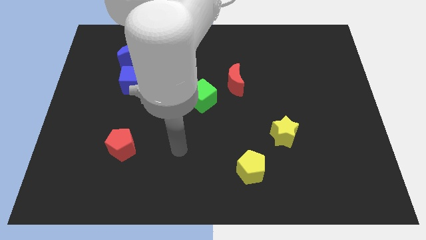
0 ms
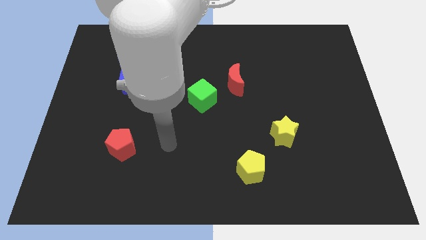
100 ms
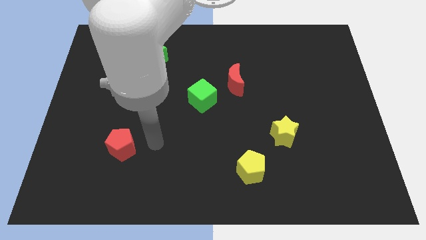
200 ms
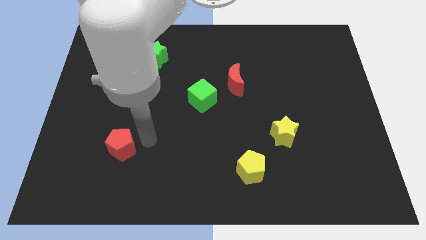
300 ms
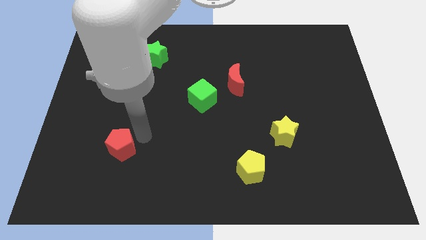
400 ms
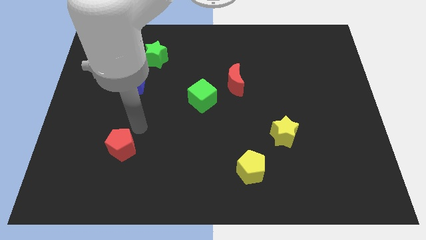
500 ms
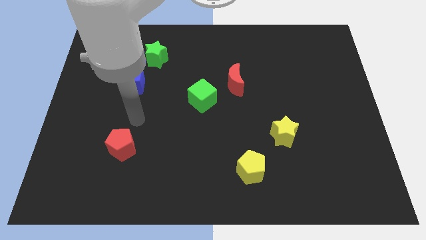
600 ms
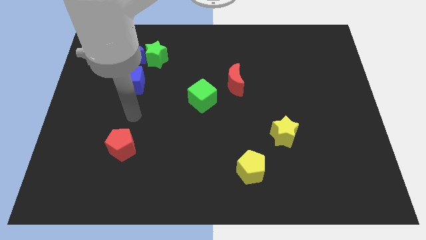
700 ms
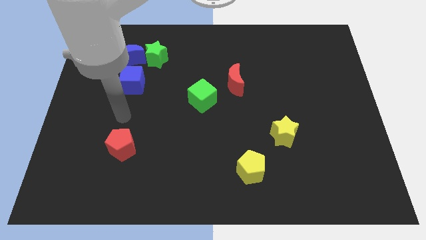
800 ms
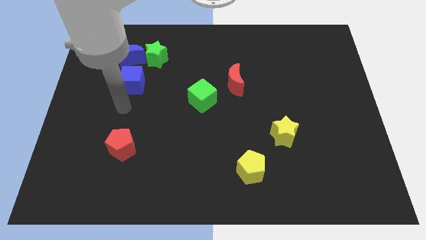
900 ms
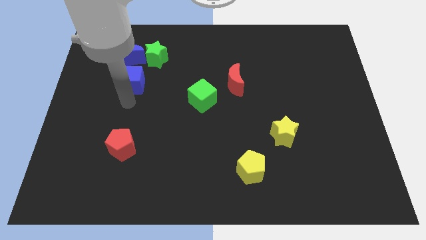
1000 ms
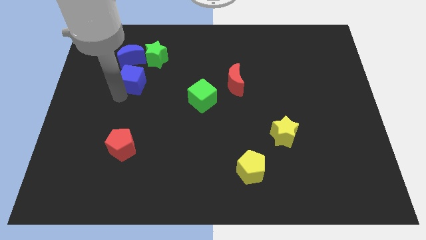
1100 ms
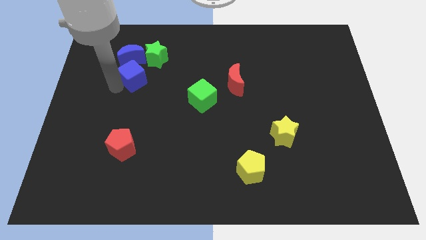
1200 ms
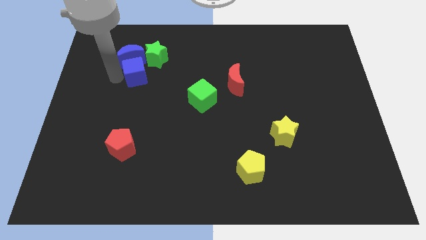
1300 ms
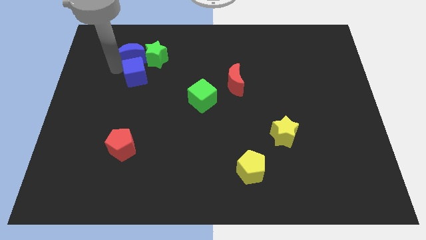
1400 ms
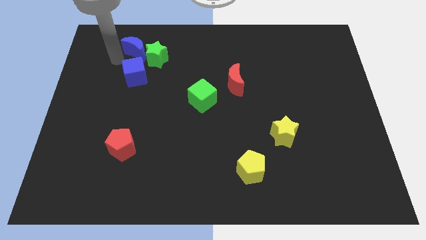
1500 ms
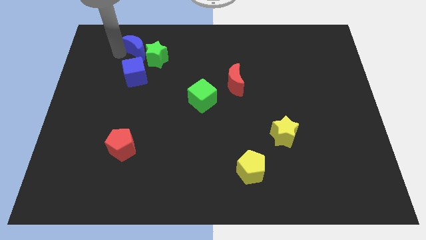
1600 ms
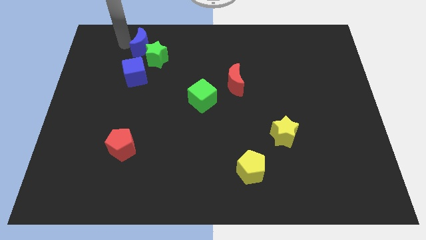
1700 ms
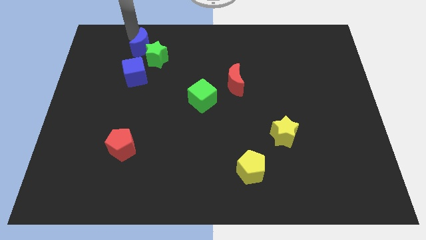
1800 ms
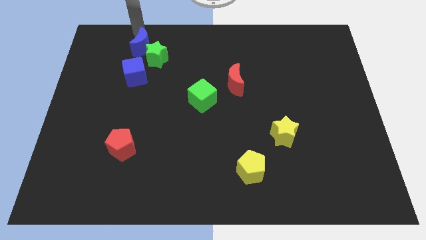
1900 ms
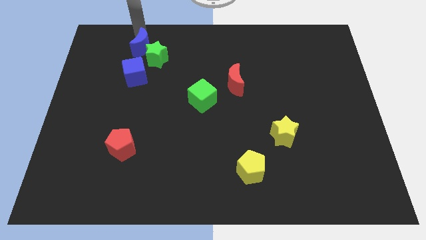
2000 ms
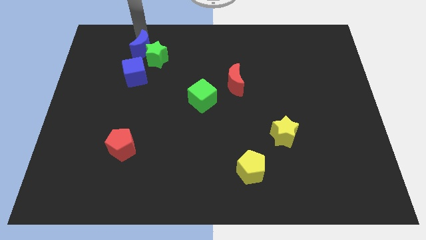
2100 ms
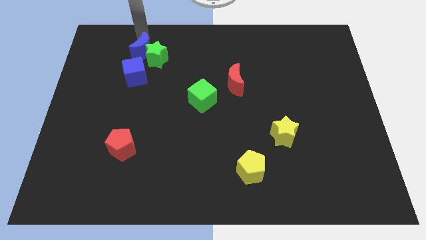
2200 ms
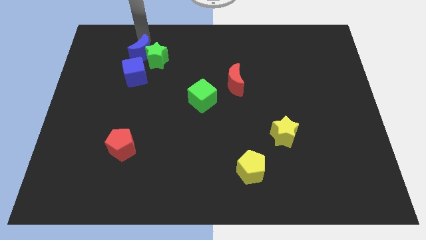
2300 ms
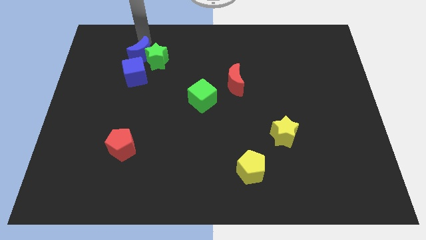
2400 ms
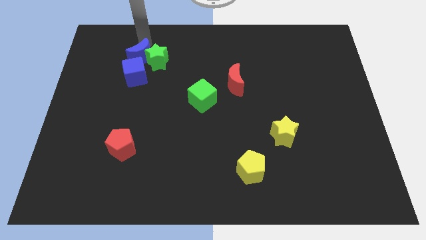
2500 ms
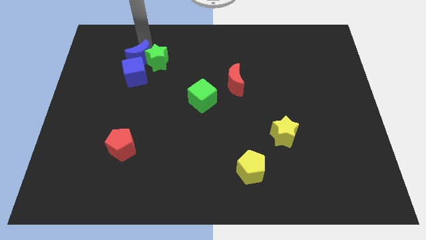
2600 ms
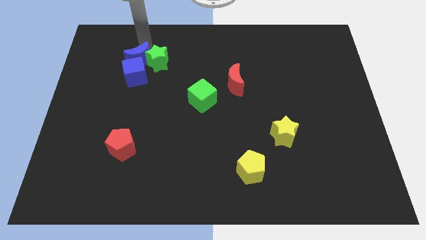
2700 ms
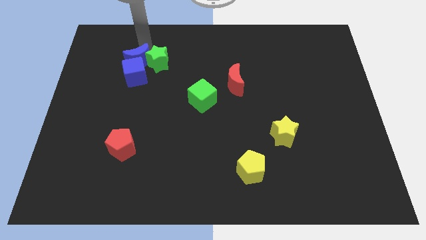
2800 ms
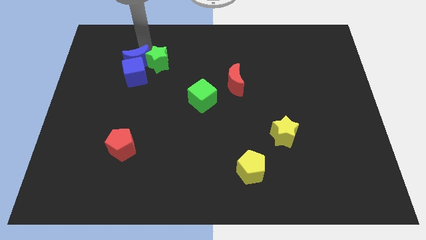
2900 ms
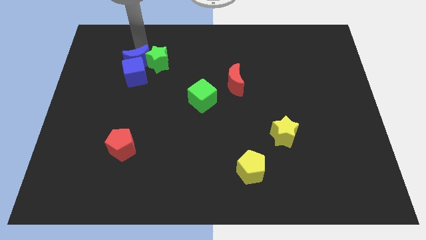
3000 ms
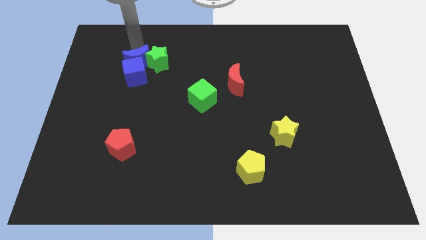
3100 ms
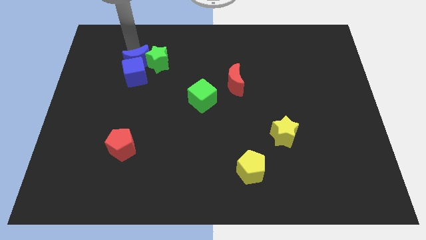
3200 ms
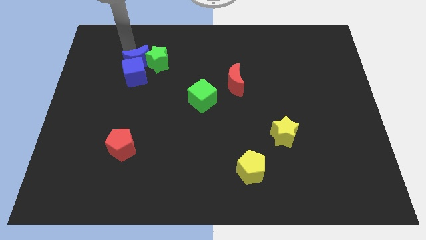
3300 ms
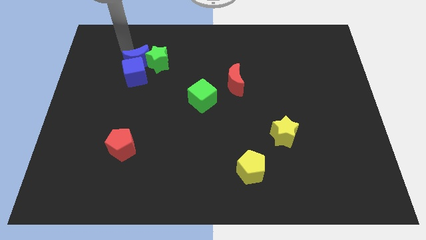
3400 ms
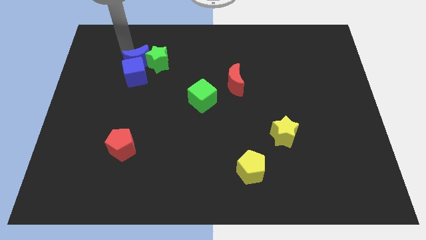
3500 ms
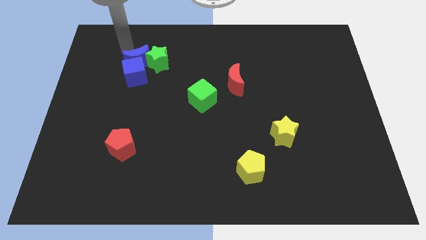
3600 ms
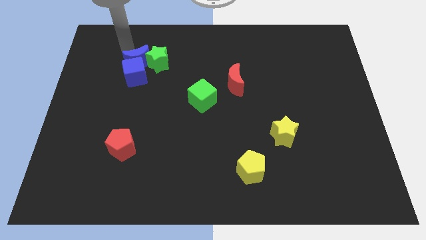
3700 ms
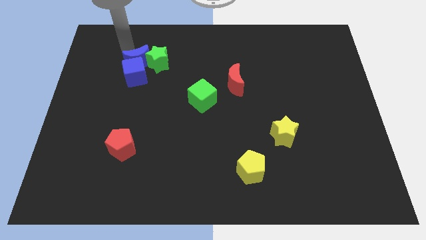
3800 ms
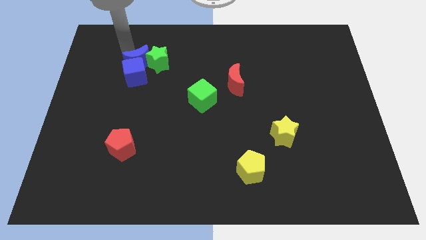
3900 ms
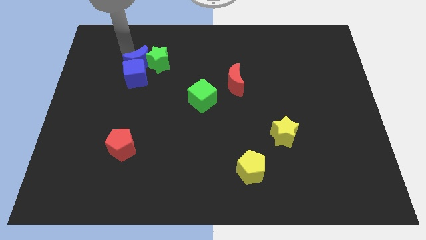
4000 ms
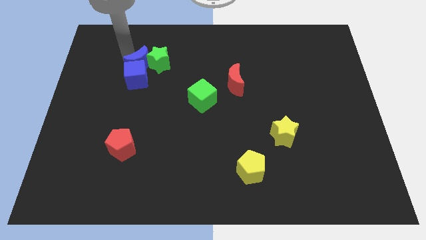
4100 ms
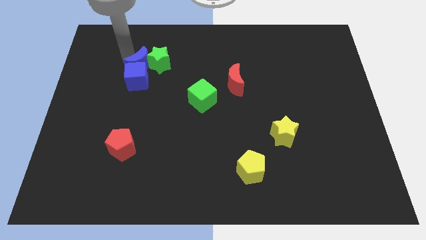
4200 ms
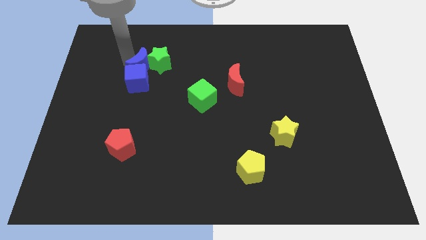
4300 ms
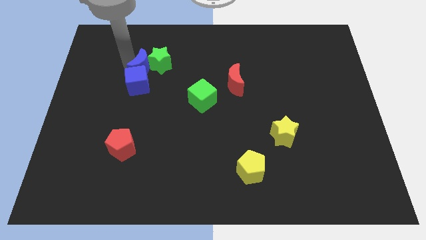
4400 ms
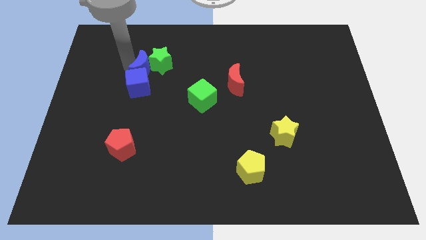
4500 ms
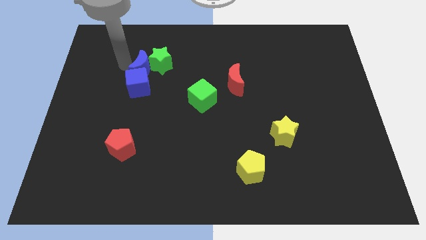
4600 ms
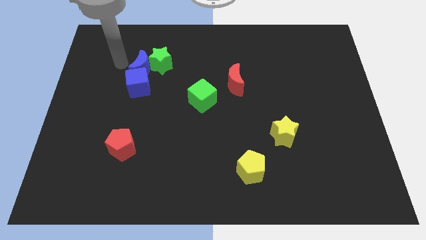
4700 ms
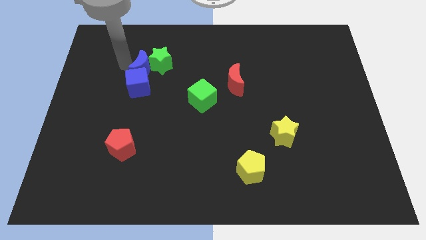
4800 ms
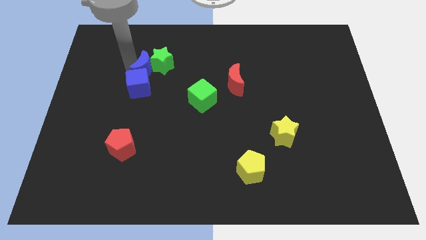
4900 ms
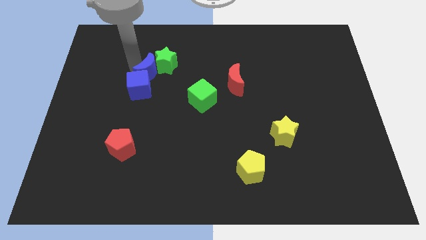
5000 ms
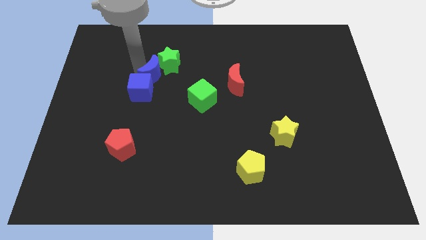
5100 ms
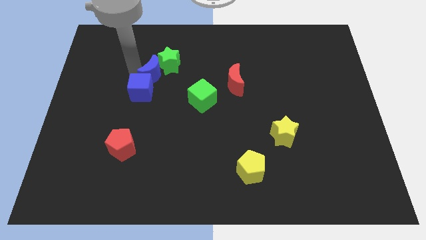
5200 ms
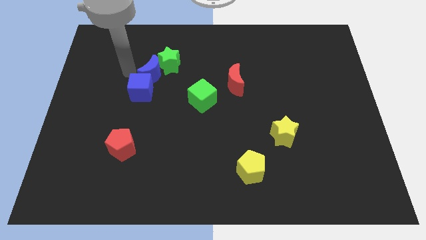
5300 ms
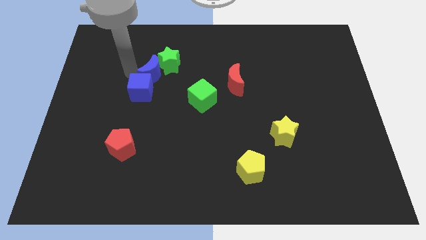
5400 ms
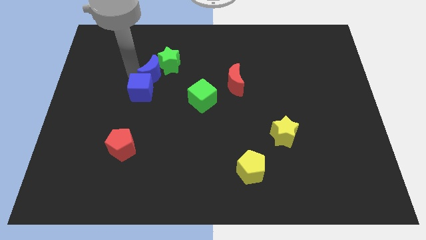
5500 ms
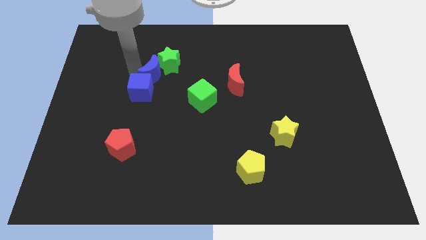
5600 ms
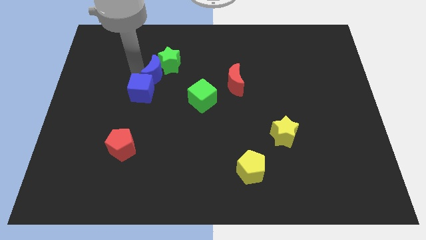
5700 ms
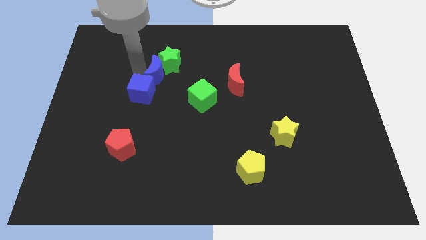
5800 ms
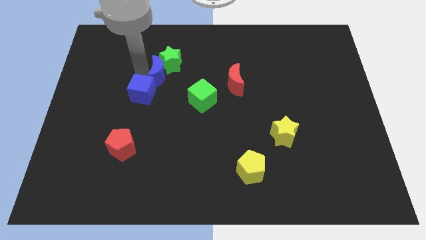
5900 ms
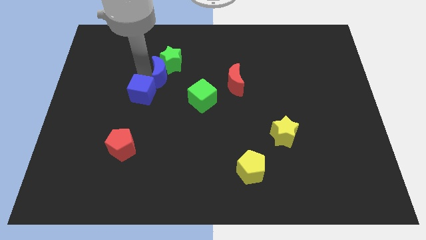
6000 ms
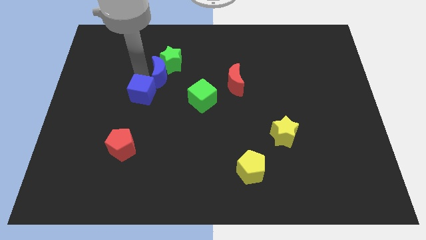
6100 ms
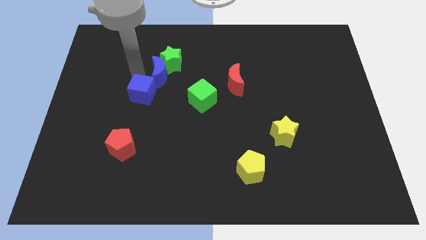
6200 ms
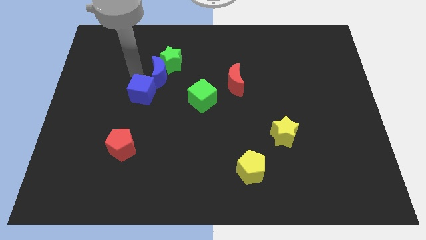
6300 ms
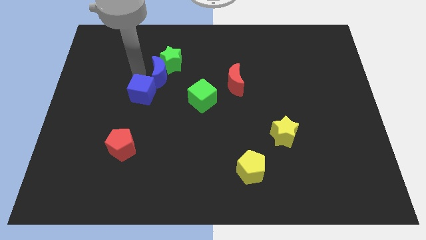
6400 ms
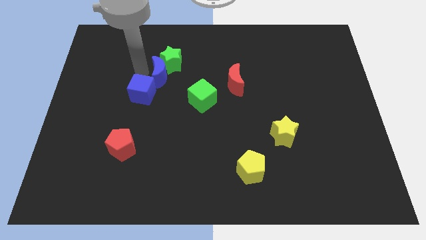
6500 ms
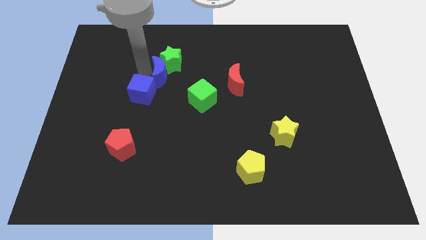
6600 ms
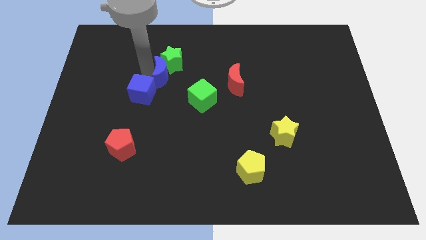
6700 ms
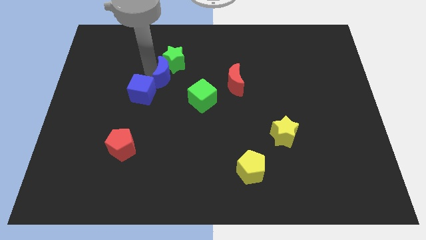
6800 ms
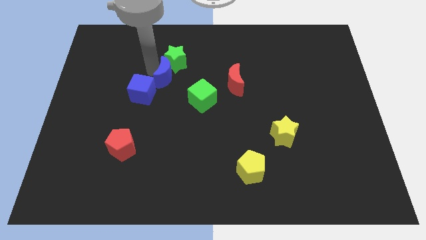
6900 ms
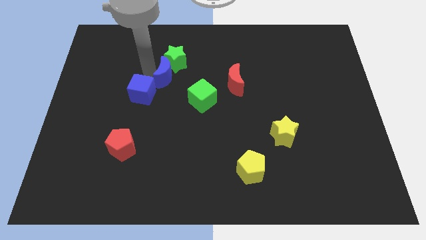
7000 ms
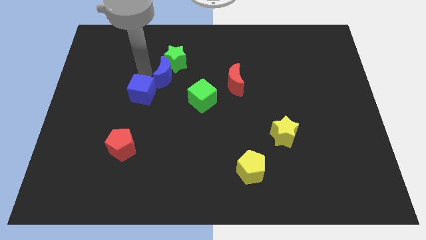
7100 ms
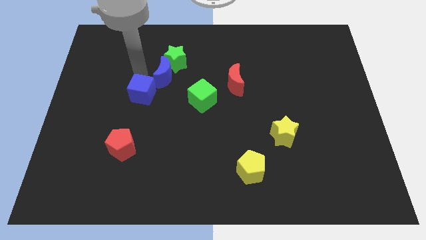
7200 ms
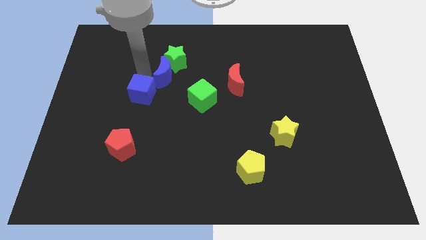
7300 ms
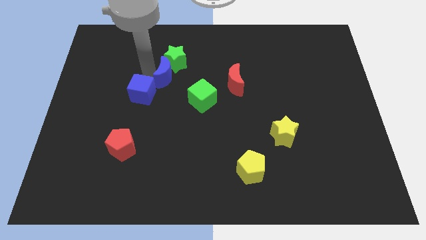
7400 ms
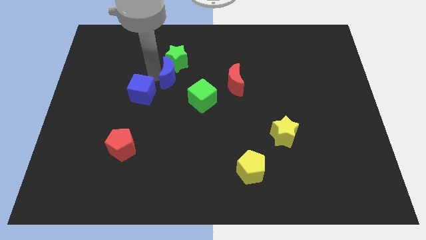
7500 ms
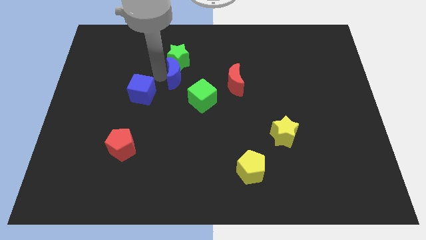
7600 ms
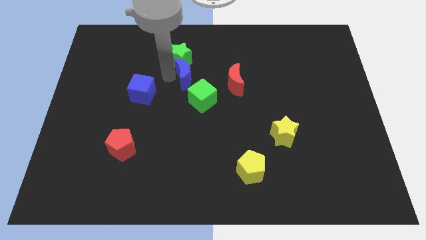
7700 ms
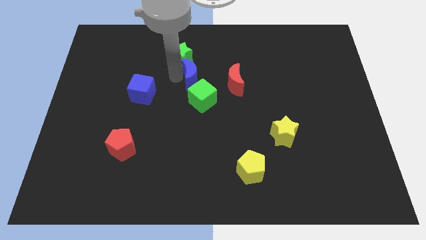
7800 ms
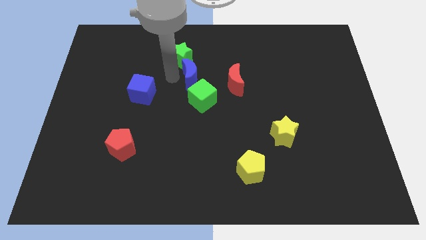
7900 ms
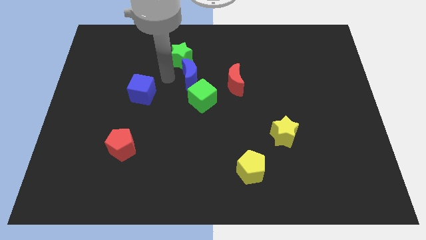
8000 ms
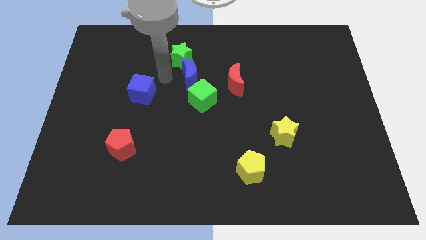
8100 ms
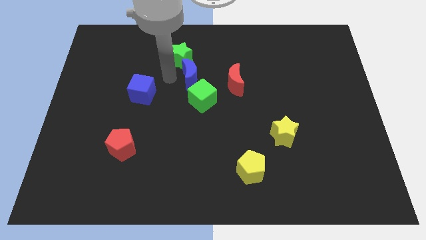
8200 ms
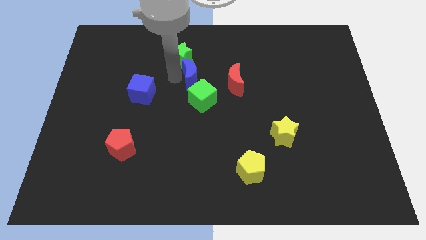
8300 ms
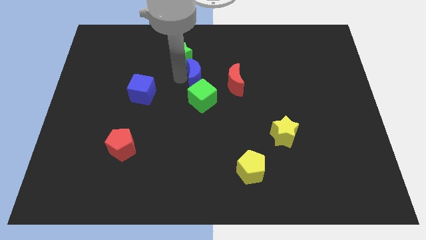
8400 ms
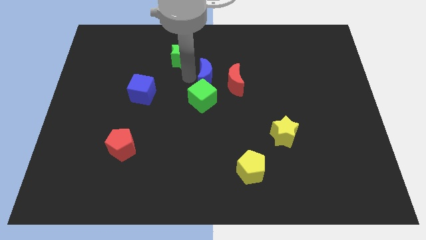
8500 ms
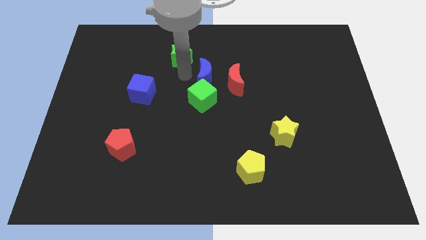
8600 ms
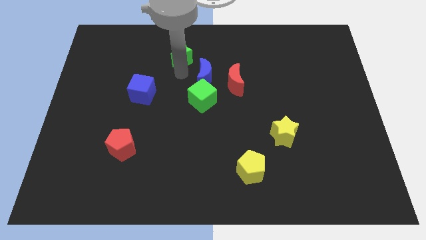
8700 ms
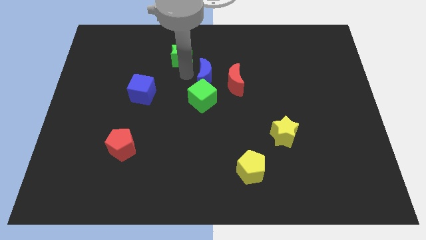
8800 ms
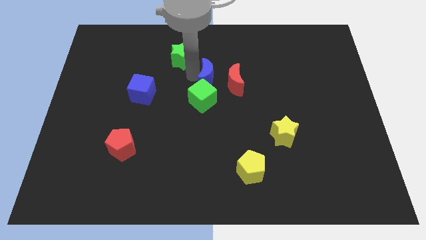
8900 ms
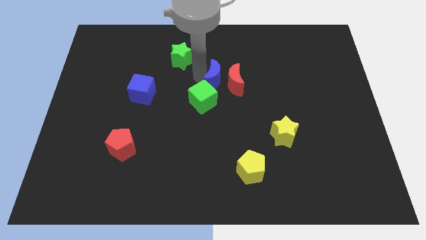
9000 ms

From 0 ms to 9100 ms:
push the blue moon next to the red moon
